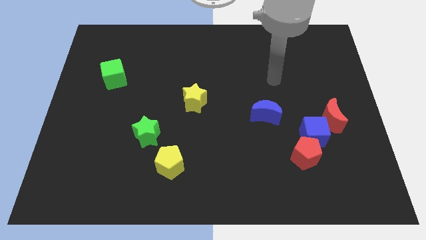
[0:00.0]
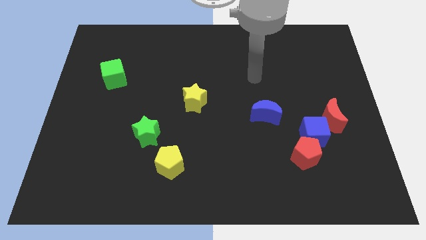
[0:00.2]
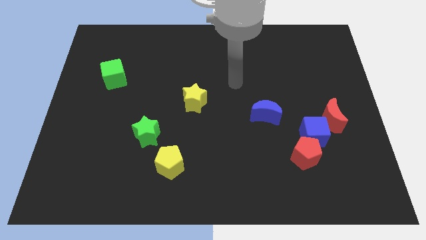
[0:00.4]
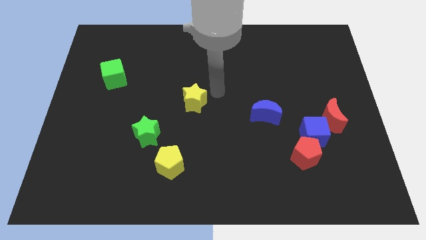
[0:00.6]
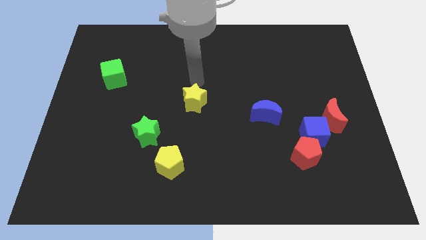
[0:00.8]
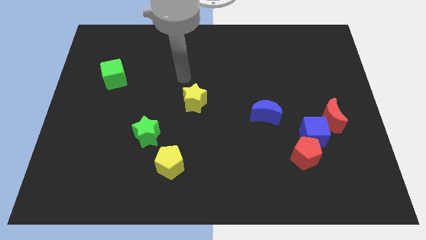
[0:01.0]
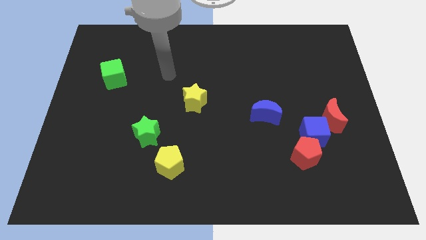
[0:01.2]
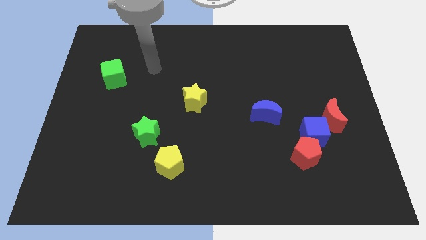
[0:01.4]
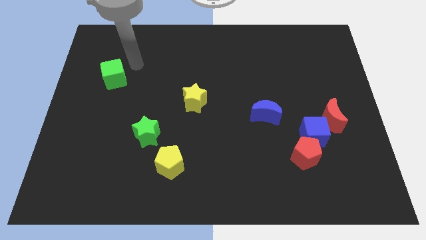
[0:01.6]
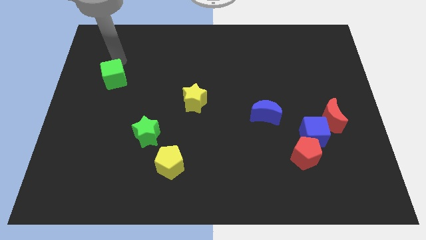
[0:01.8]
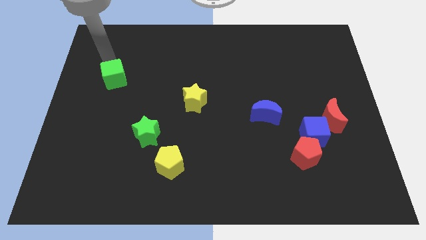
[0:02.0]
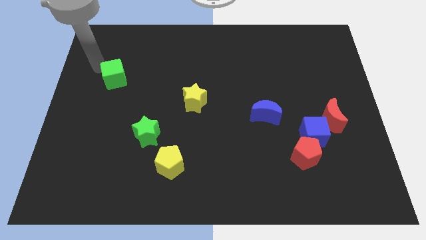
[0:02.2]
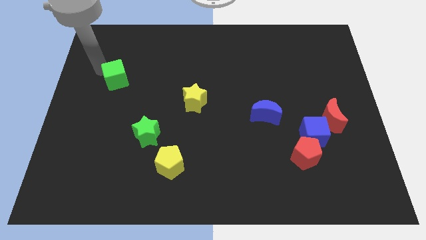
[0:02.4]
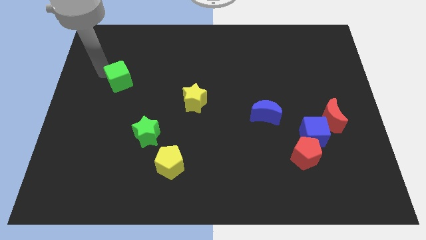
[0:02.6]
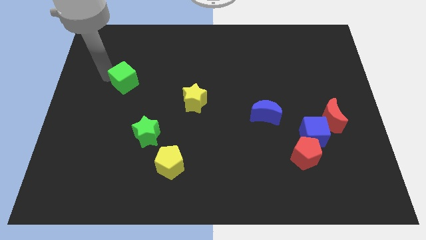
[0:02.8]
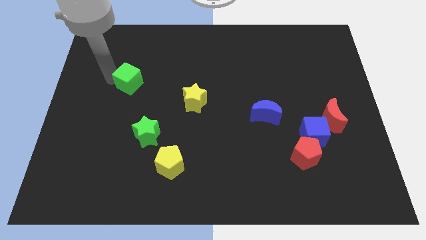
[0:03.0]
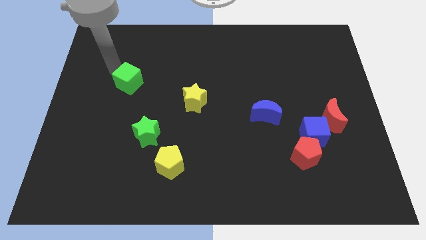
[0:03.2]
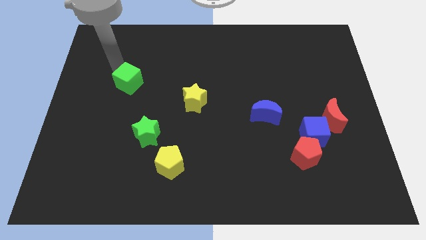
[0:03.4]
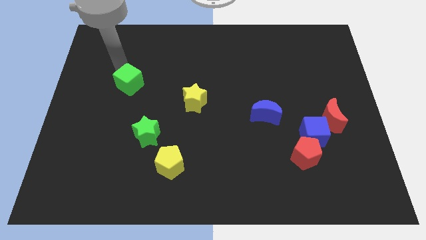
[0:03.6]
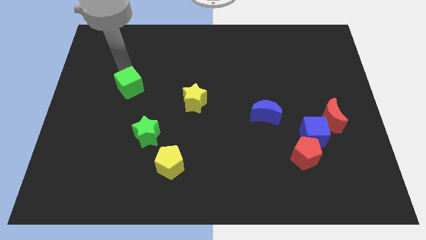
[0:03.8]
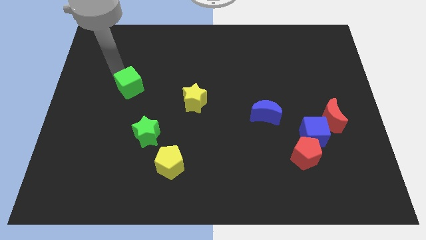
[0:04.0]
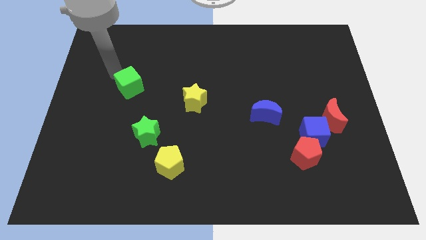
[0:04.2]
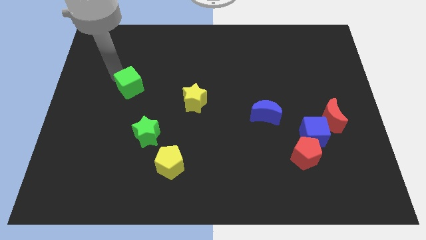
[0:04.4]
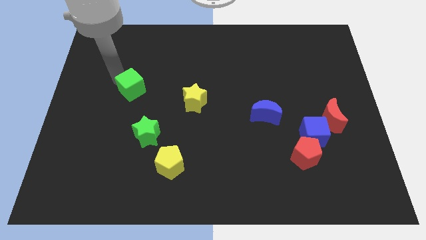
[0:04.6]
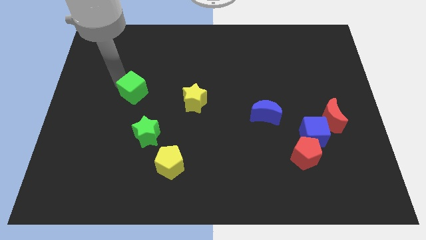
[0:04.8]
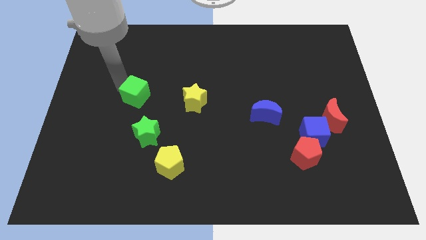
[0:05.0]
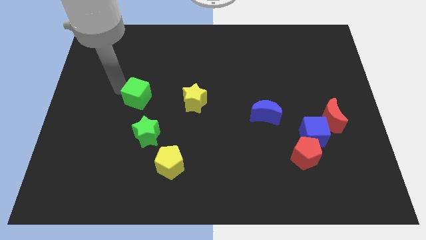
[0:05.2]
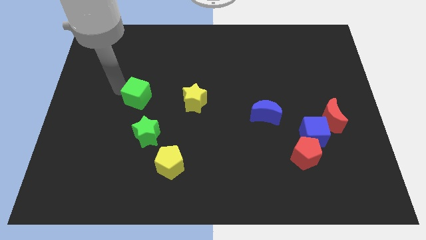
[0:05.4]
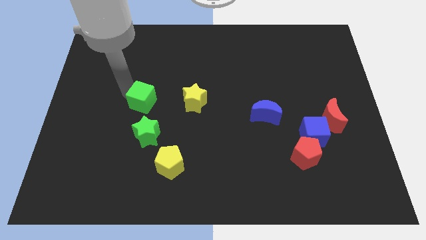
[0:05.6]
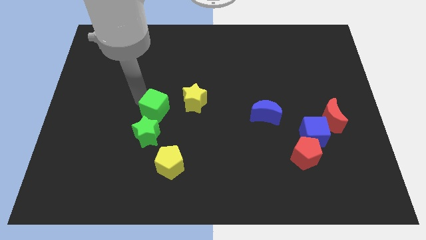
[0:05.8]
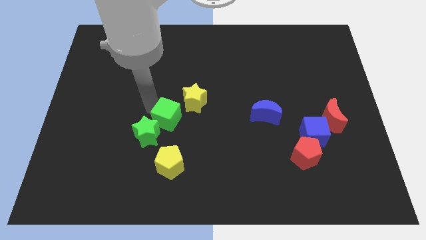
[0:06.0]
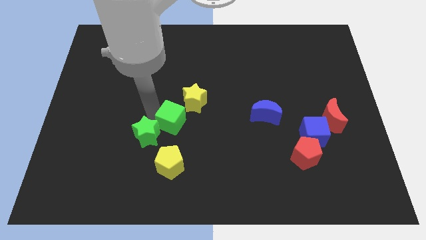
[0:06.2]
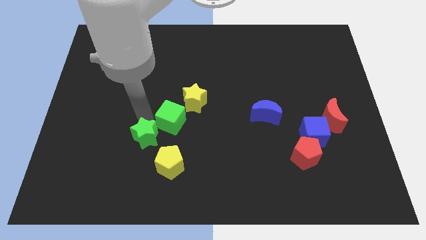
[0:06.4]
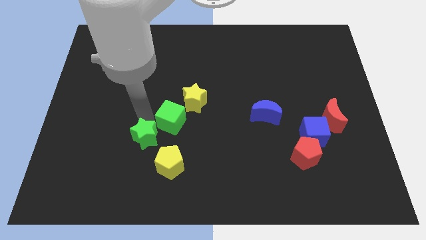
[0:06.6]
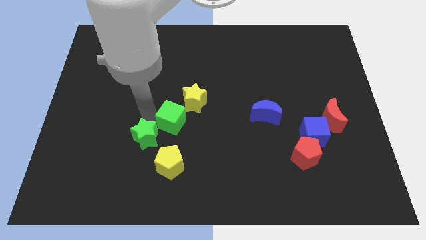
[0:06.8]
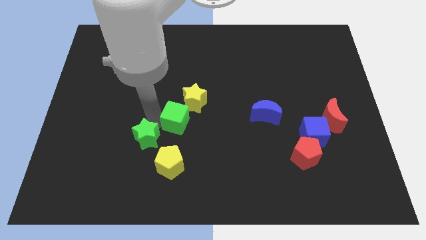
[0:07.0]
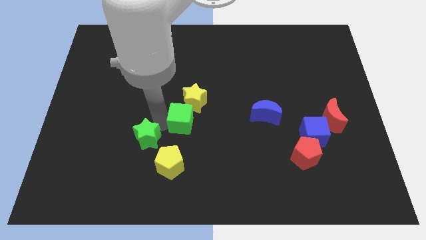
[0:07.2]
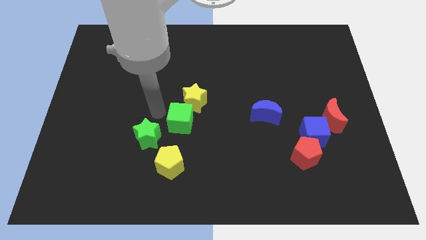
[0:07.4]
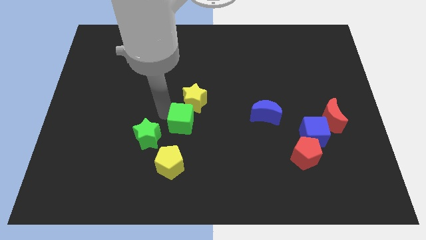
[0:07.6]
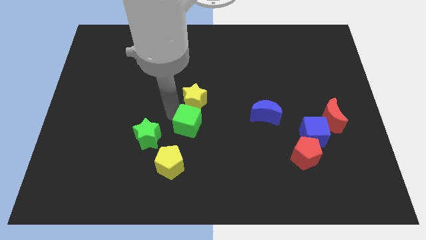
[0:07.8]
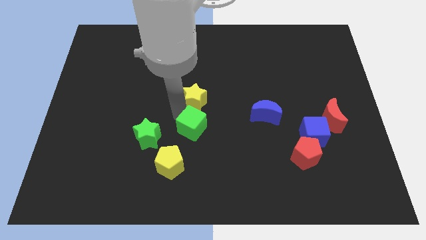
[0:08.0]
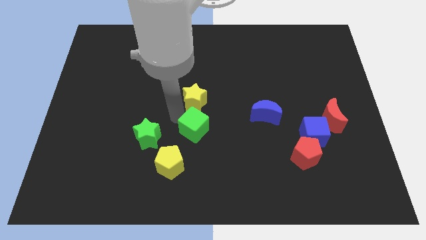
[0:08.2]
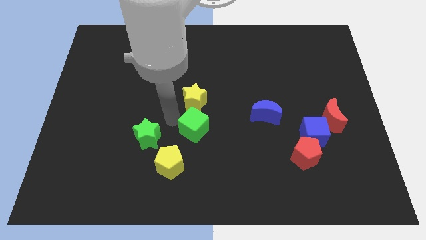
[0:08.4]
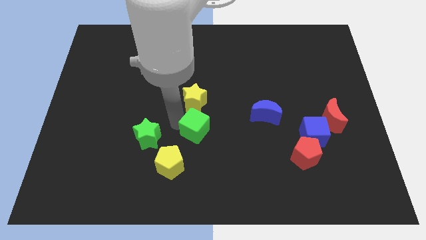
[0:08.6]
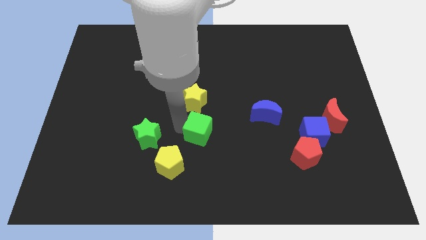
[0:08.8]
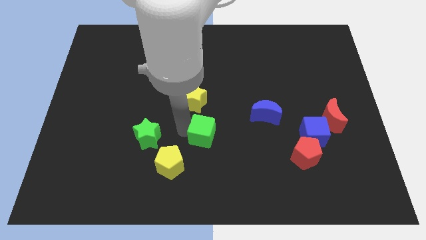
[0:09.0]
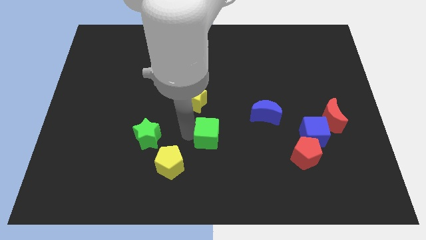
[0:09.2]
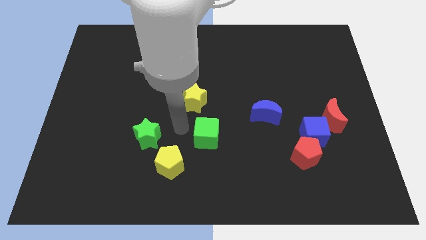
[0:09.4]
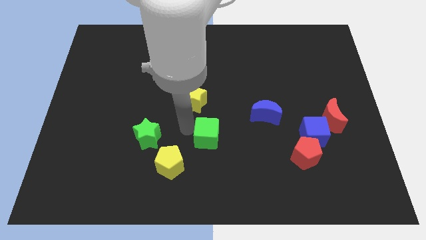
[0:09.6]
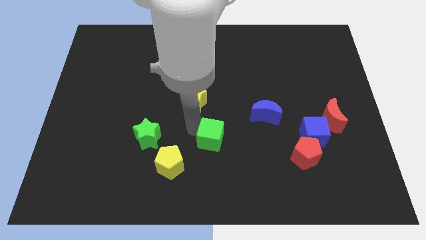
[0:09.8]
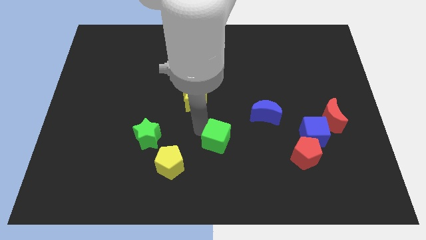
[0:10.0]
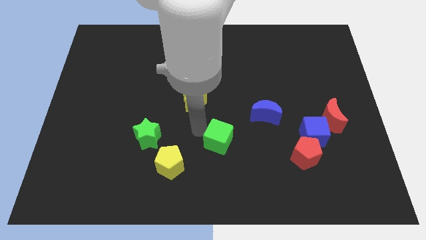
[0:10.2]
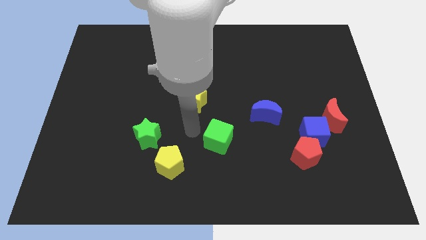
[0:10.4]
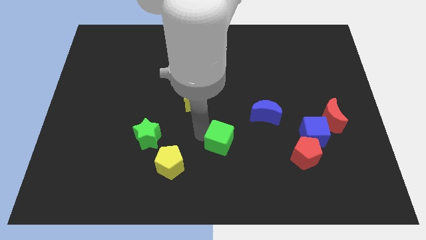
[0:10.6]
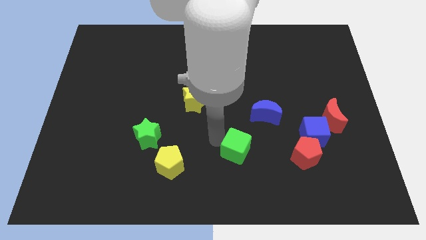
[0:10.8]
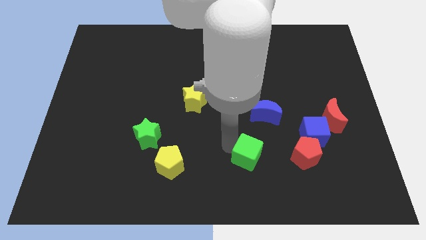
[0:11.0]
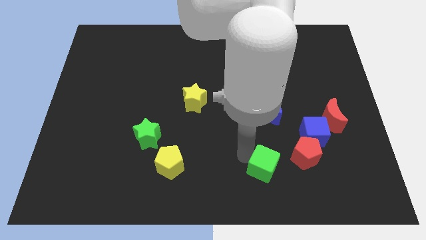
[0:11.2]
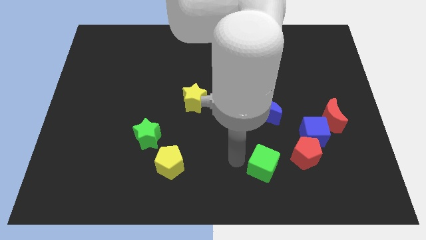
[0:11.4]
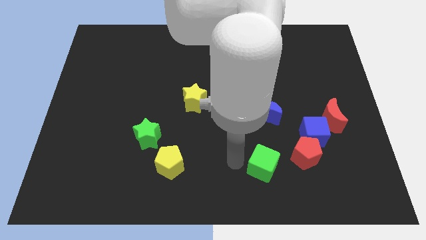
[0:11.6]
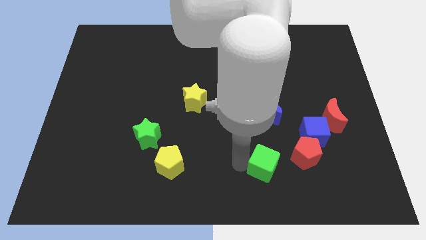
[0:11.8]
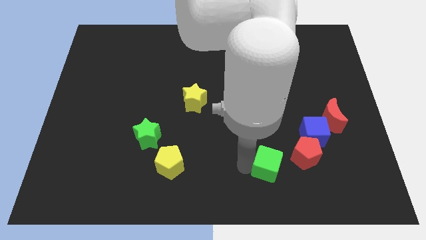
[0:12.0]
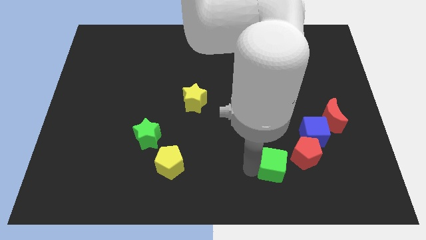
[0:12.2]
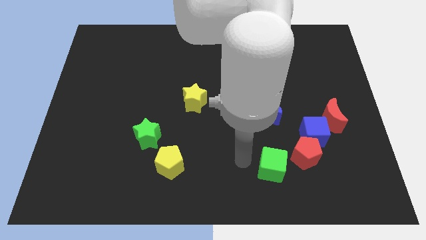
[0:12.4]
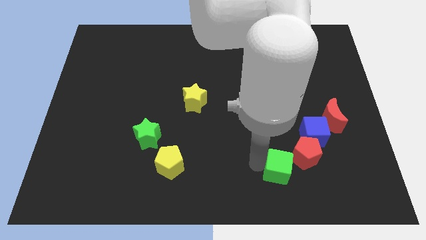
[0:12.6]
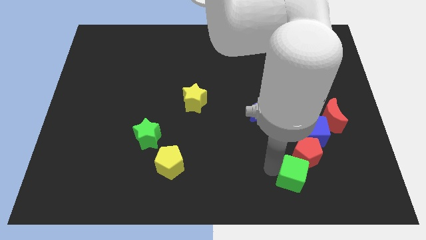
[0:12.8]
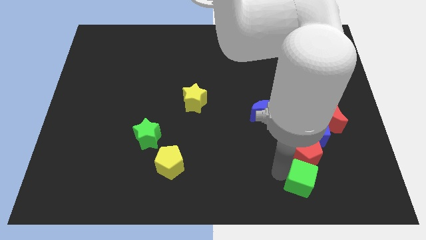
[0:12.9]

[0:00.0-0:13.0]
put the green cube to the bottom of the blue cube
